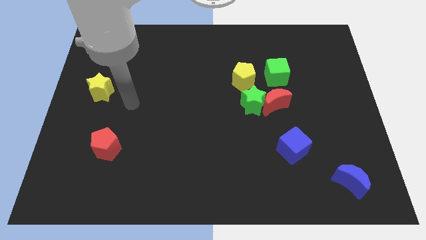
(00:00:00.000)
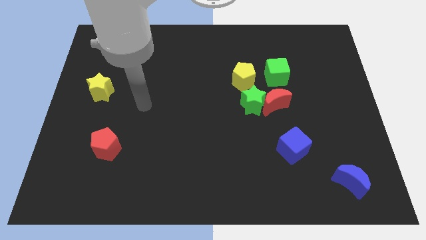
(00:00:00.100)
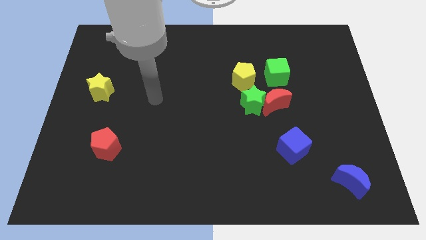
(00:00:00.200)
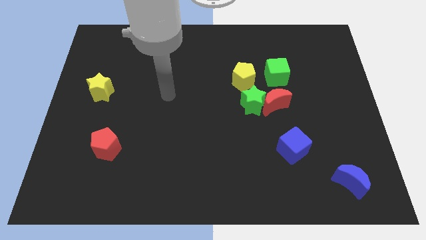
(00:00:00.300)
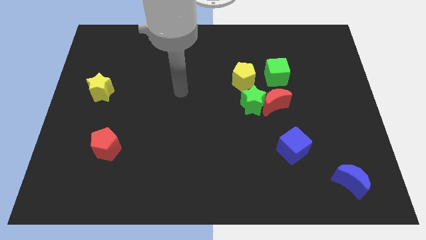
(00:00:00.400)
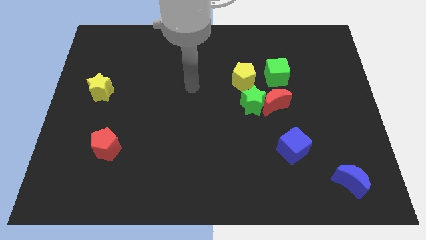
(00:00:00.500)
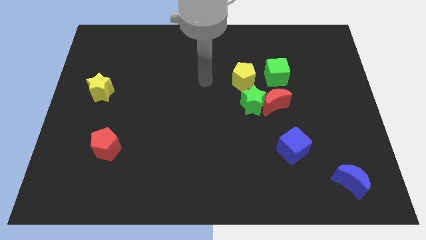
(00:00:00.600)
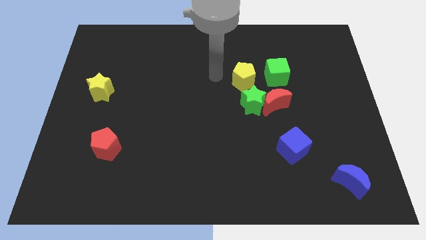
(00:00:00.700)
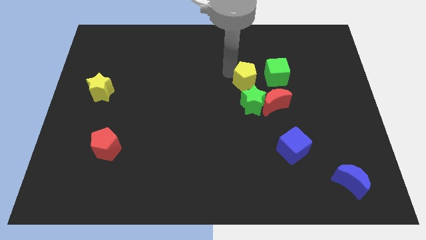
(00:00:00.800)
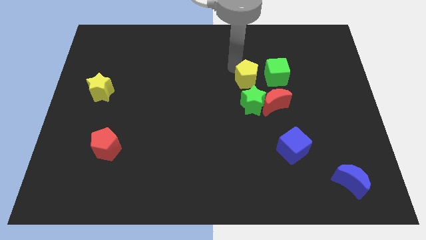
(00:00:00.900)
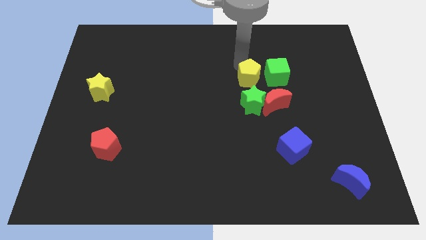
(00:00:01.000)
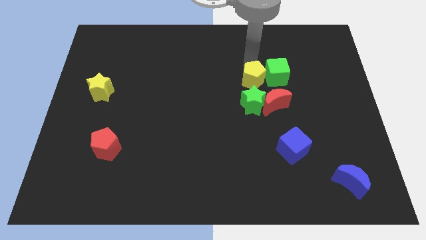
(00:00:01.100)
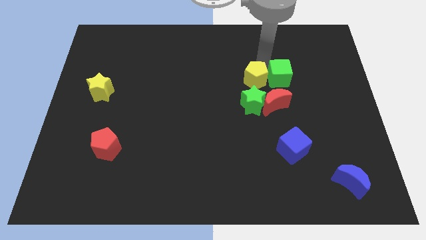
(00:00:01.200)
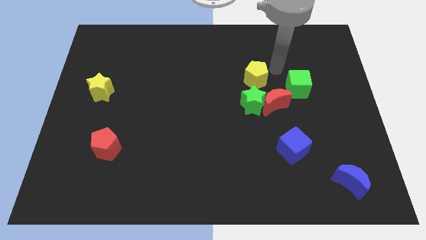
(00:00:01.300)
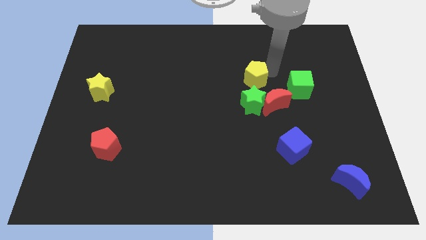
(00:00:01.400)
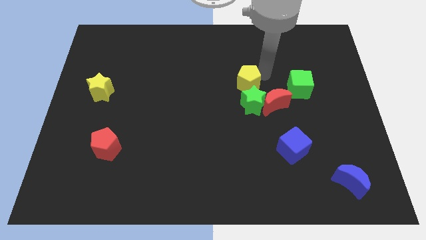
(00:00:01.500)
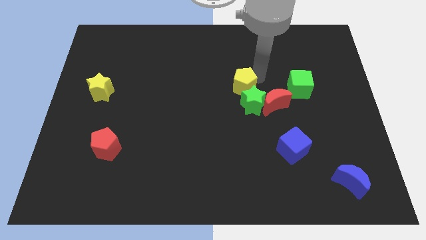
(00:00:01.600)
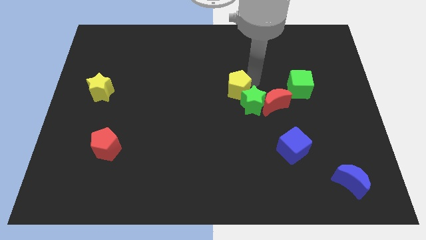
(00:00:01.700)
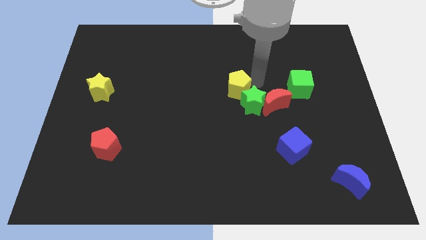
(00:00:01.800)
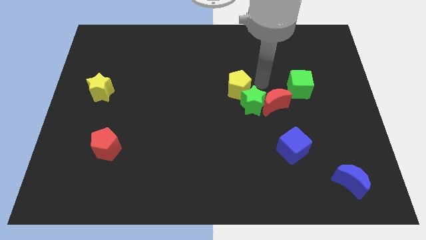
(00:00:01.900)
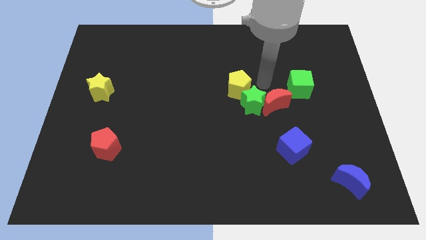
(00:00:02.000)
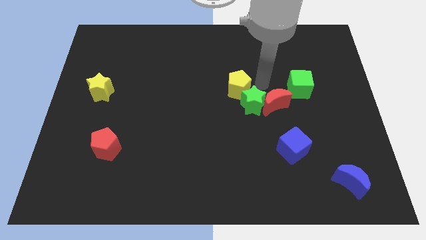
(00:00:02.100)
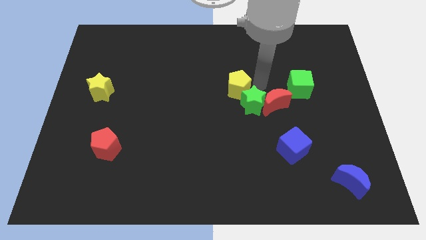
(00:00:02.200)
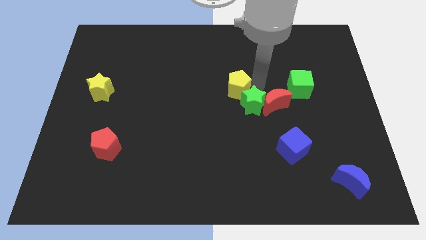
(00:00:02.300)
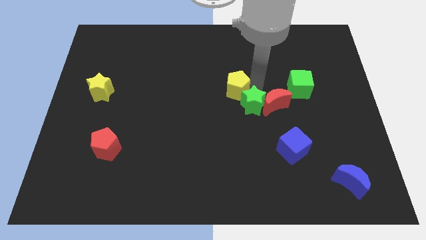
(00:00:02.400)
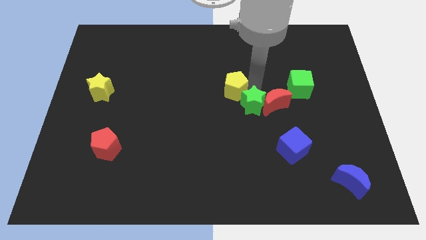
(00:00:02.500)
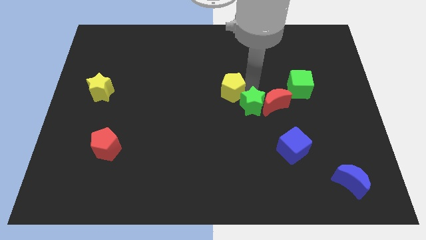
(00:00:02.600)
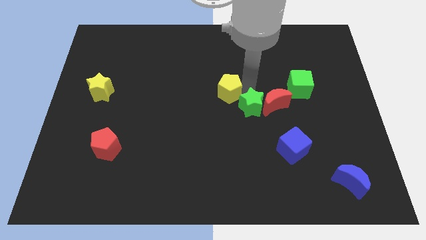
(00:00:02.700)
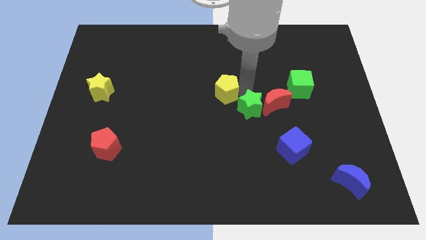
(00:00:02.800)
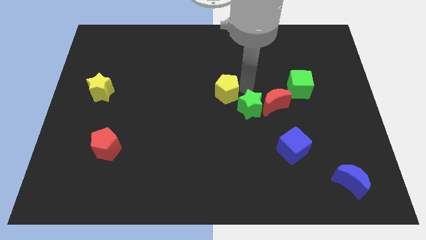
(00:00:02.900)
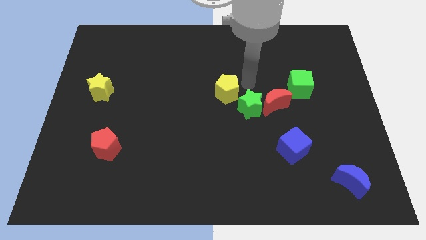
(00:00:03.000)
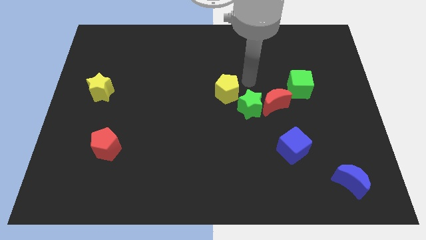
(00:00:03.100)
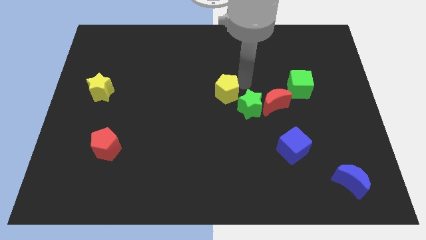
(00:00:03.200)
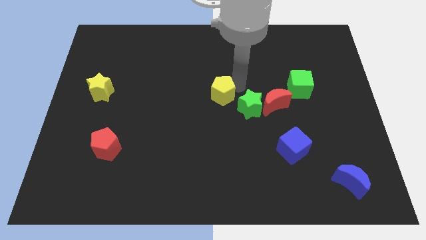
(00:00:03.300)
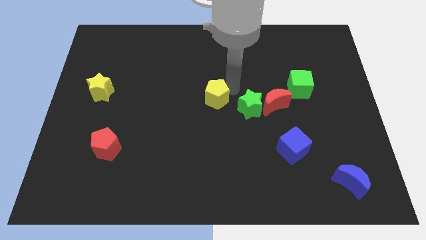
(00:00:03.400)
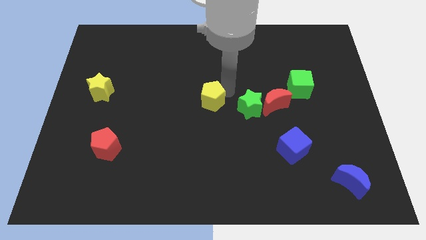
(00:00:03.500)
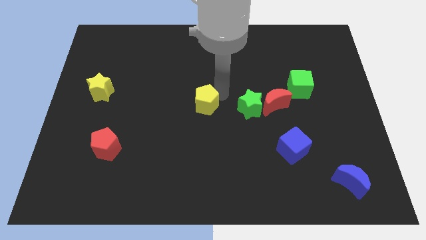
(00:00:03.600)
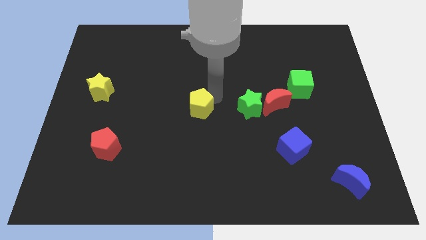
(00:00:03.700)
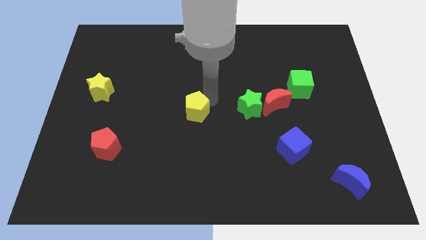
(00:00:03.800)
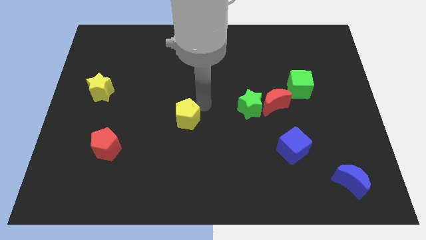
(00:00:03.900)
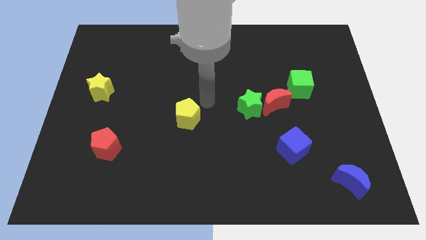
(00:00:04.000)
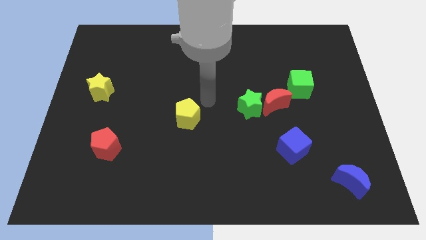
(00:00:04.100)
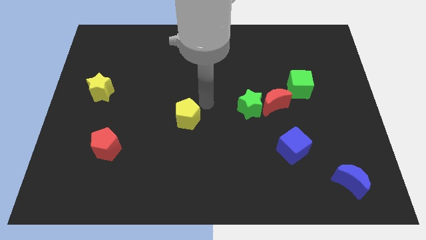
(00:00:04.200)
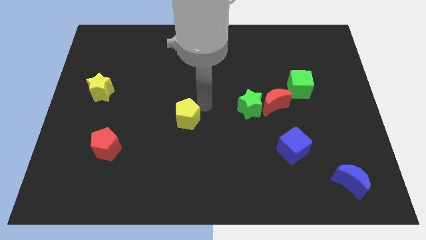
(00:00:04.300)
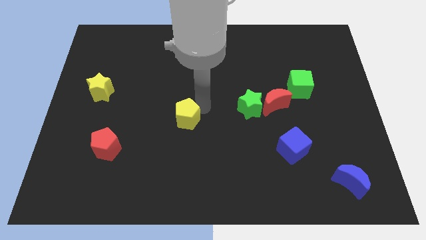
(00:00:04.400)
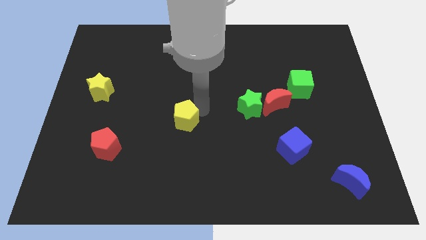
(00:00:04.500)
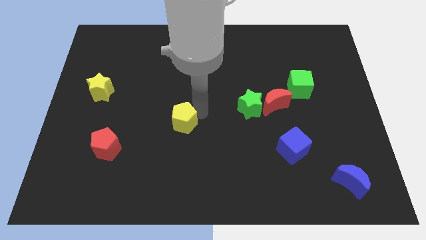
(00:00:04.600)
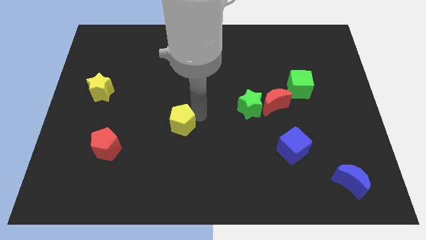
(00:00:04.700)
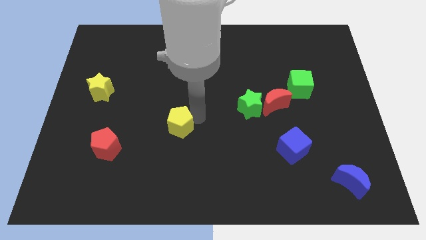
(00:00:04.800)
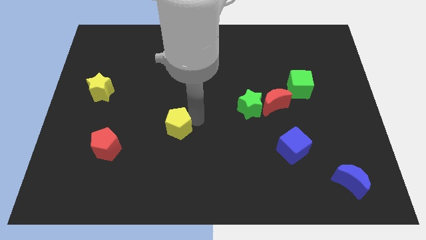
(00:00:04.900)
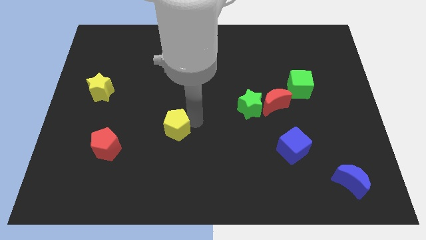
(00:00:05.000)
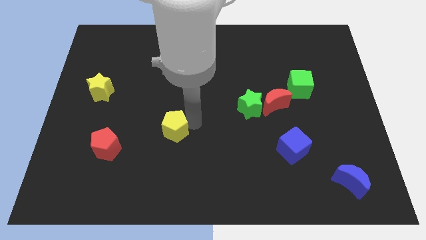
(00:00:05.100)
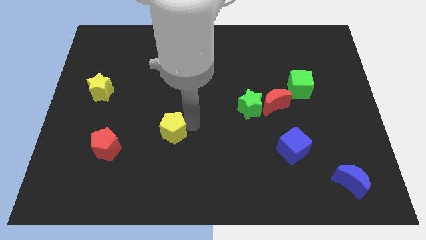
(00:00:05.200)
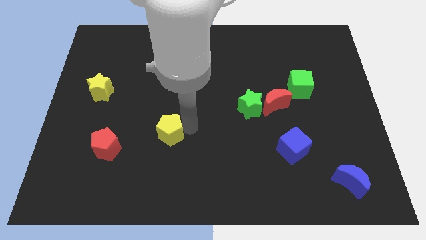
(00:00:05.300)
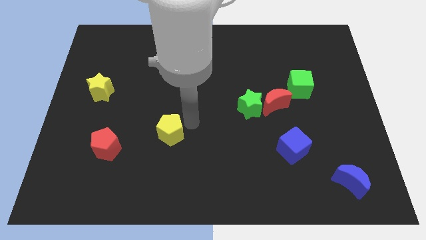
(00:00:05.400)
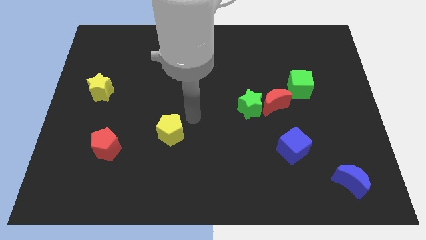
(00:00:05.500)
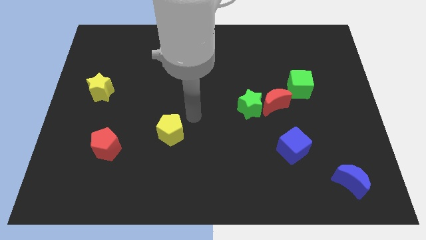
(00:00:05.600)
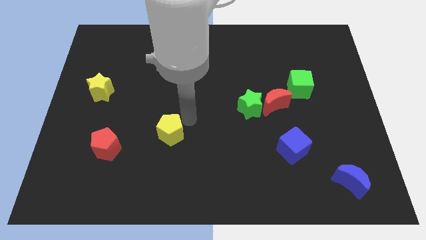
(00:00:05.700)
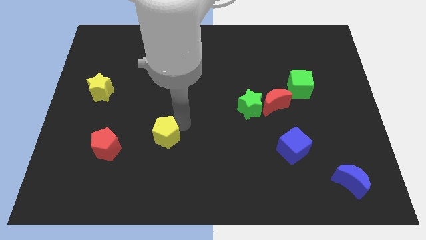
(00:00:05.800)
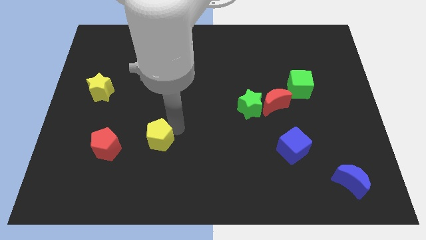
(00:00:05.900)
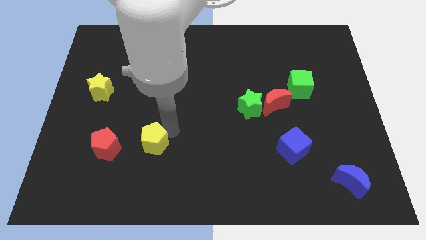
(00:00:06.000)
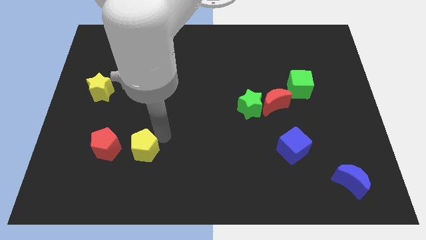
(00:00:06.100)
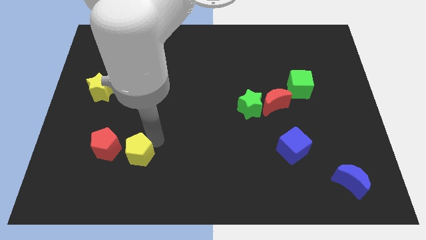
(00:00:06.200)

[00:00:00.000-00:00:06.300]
put the yellow pentagon to the bottom right of the red pentagon

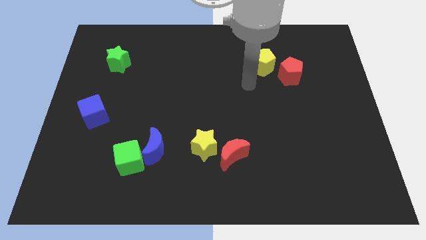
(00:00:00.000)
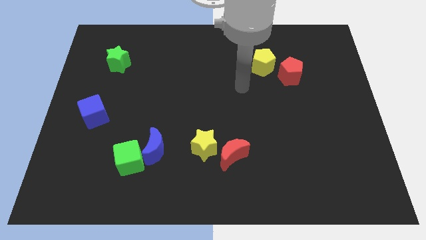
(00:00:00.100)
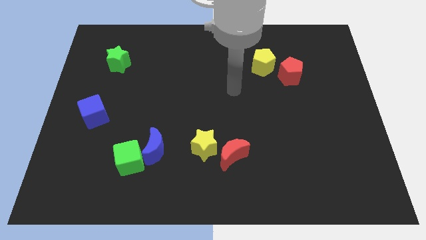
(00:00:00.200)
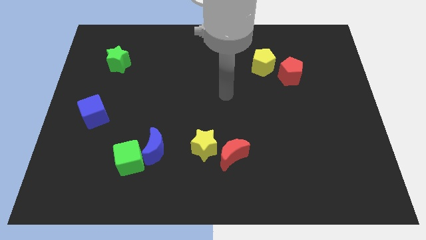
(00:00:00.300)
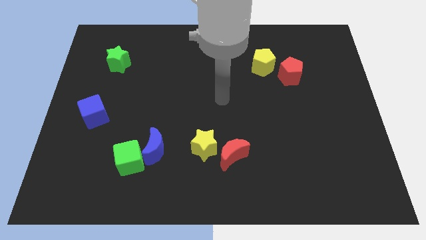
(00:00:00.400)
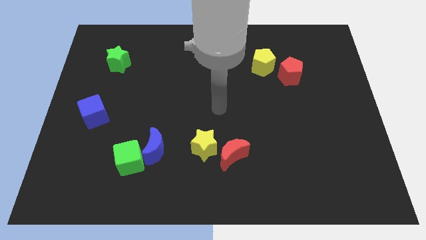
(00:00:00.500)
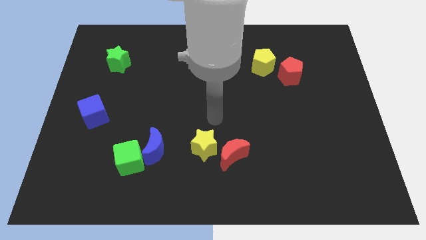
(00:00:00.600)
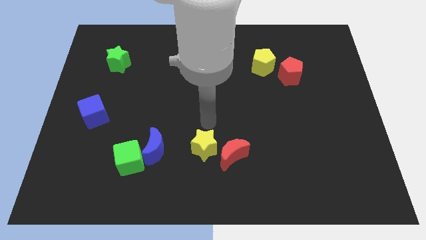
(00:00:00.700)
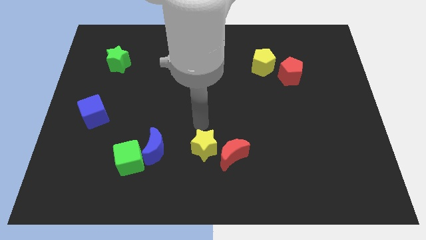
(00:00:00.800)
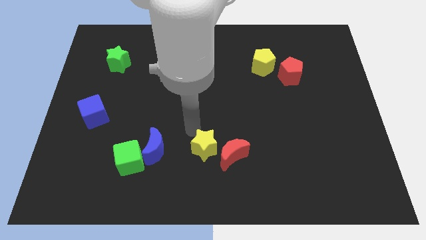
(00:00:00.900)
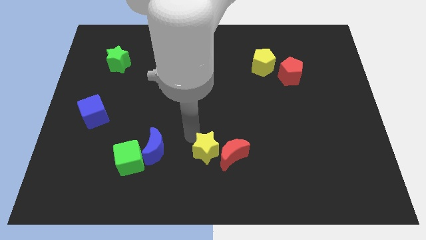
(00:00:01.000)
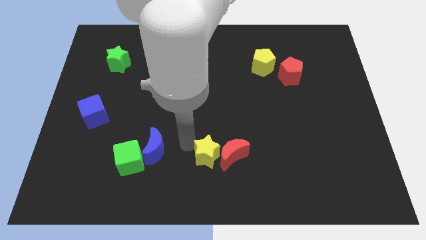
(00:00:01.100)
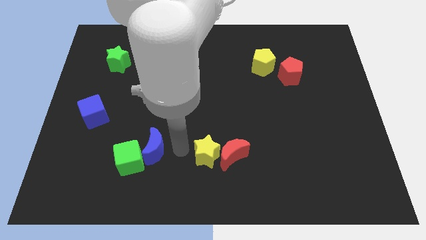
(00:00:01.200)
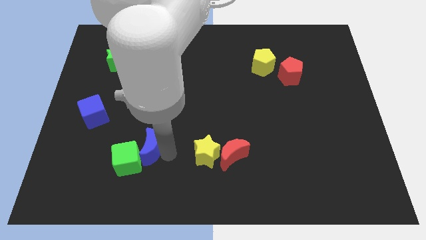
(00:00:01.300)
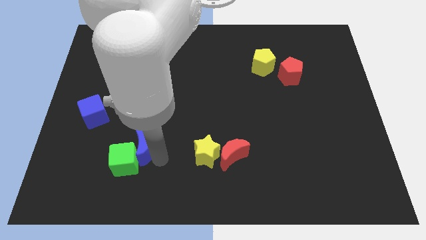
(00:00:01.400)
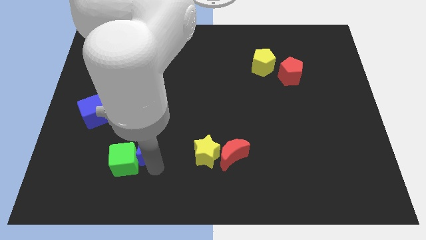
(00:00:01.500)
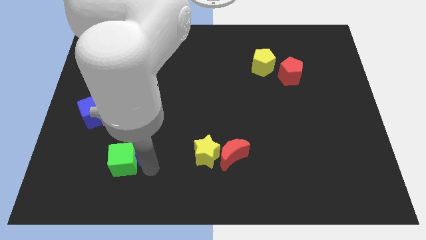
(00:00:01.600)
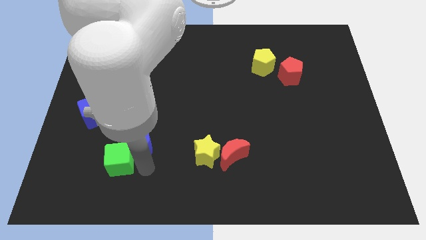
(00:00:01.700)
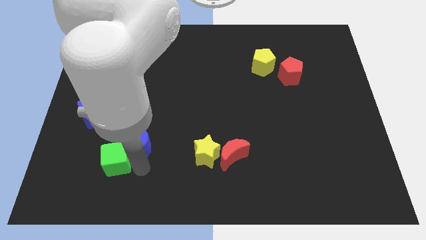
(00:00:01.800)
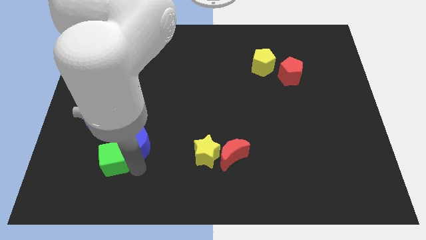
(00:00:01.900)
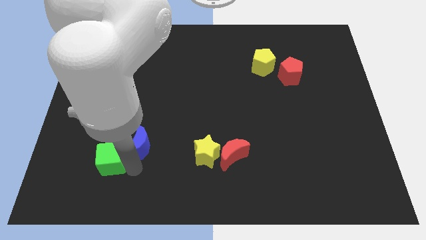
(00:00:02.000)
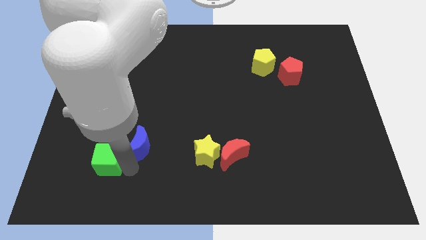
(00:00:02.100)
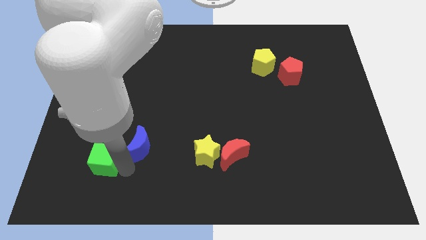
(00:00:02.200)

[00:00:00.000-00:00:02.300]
push the green cube to the bottom side of the blue cube
